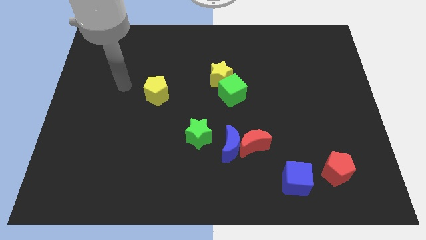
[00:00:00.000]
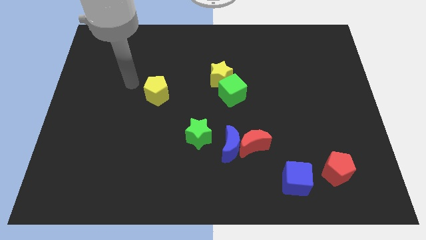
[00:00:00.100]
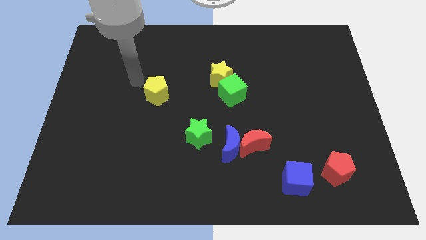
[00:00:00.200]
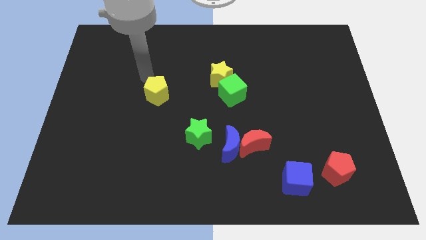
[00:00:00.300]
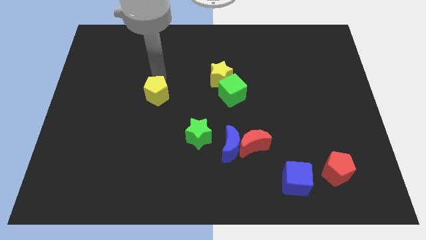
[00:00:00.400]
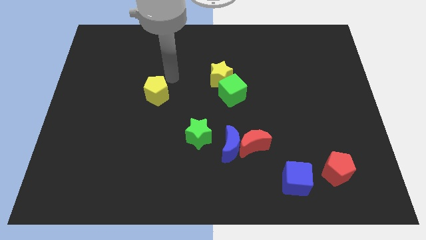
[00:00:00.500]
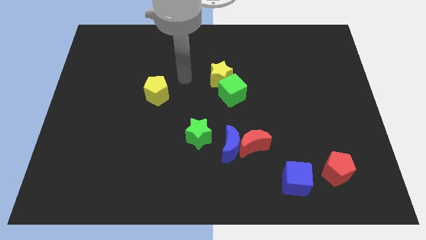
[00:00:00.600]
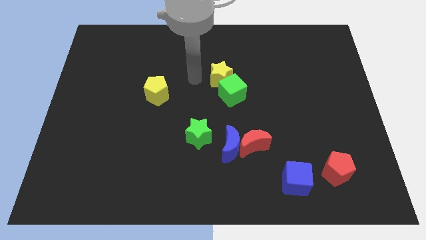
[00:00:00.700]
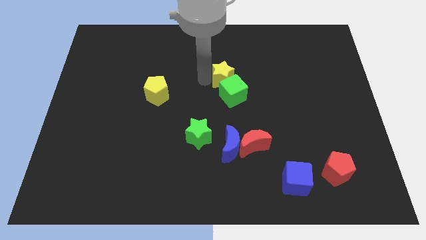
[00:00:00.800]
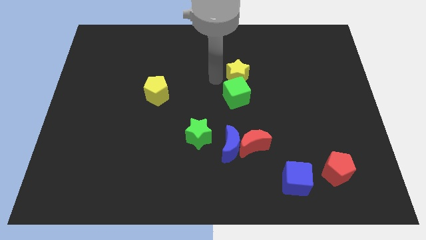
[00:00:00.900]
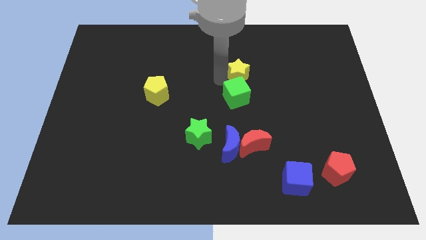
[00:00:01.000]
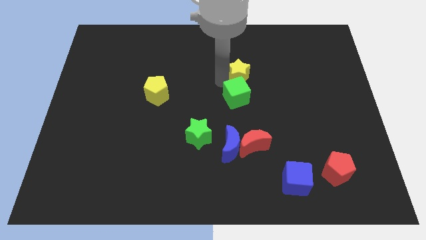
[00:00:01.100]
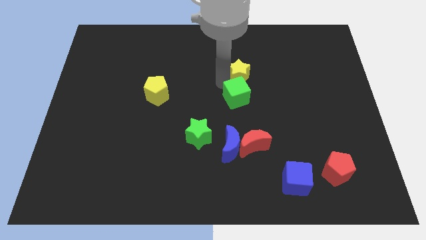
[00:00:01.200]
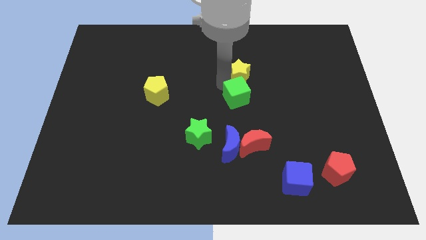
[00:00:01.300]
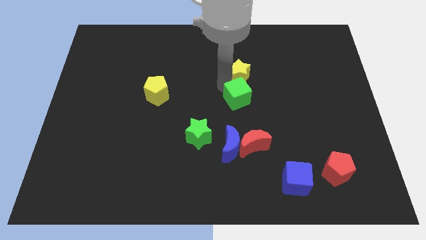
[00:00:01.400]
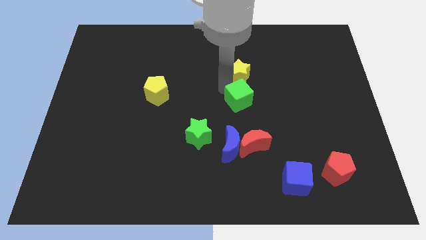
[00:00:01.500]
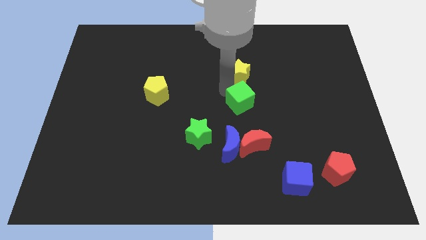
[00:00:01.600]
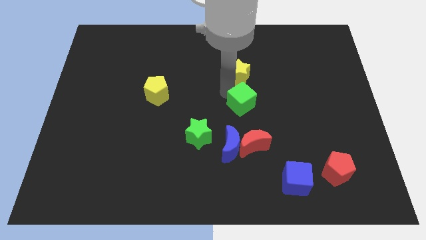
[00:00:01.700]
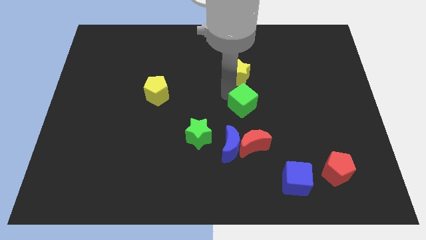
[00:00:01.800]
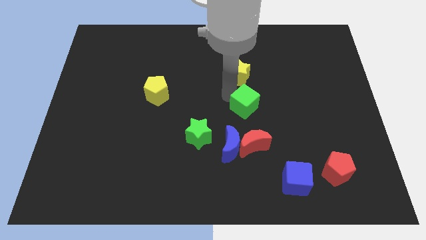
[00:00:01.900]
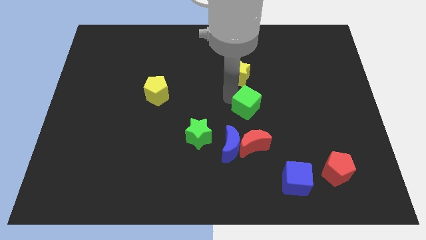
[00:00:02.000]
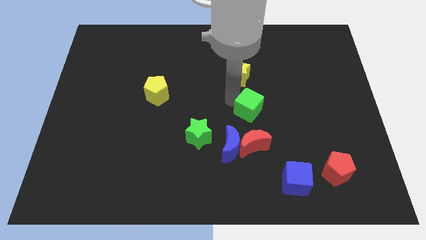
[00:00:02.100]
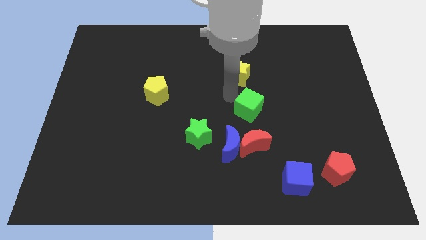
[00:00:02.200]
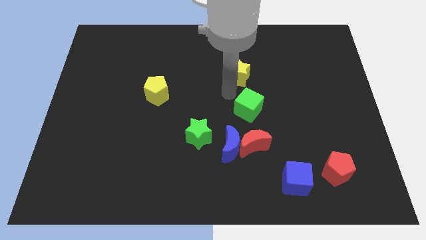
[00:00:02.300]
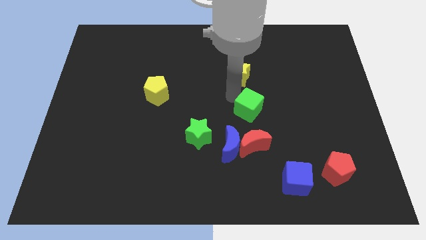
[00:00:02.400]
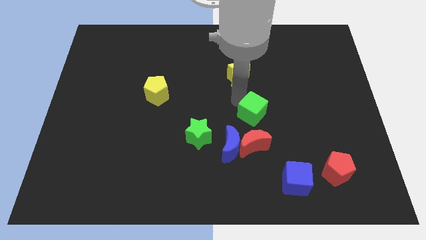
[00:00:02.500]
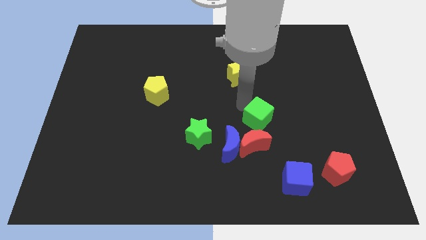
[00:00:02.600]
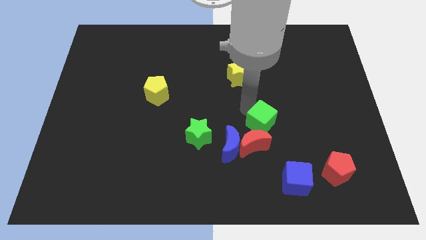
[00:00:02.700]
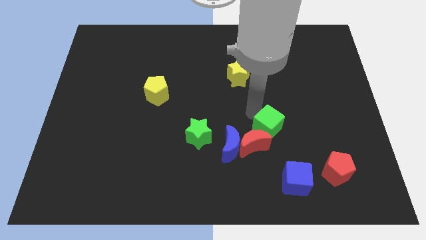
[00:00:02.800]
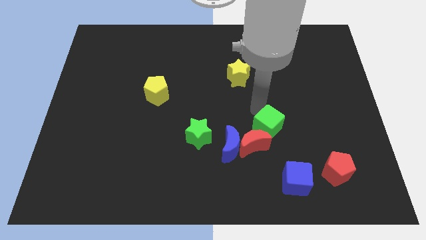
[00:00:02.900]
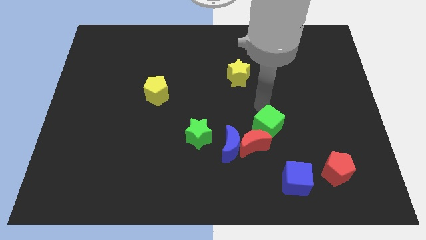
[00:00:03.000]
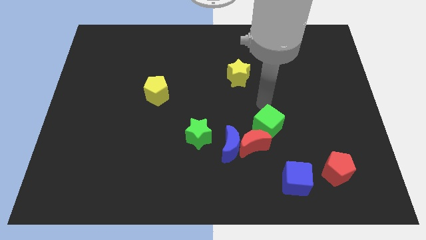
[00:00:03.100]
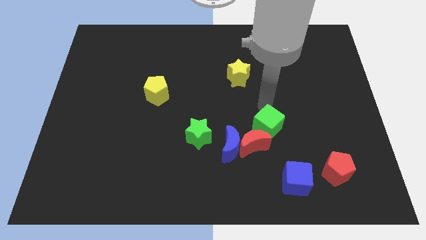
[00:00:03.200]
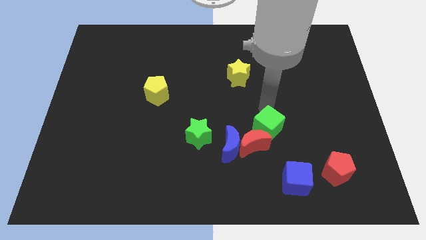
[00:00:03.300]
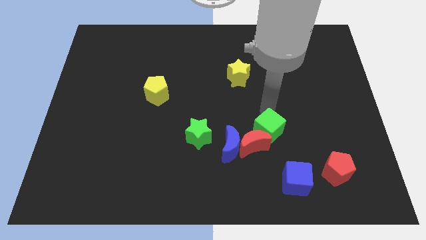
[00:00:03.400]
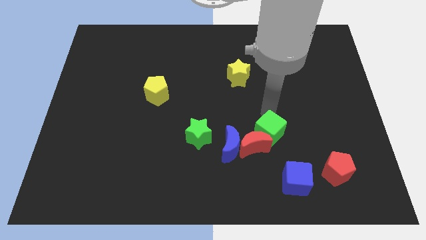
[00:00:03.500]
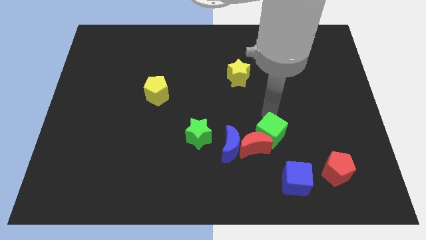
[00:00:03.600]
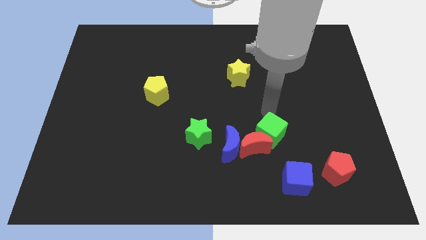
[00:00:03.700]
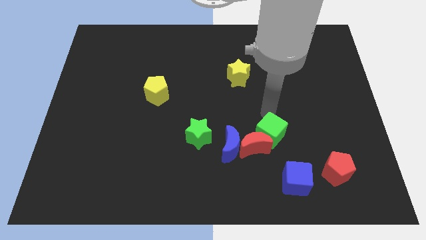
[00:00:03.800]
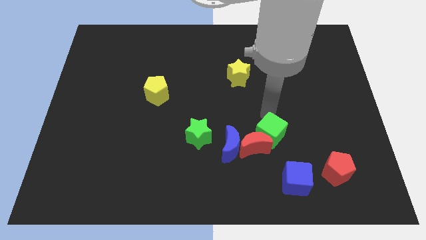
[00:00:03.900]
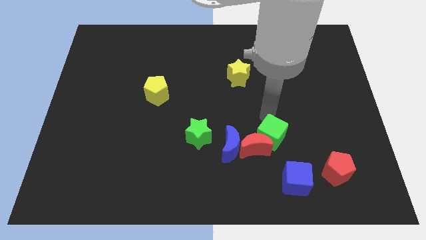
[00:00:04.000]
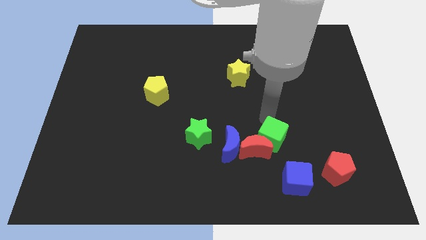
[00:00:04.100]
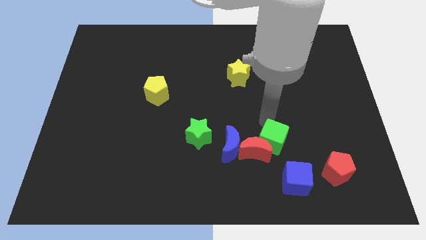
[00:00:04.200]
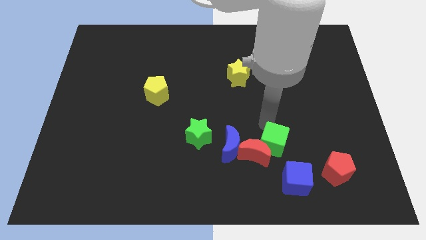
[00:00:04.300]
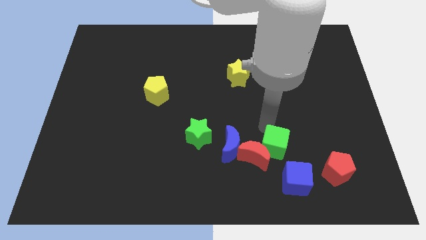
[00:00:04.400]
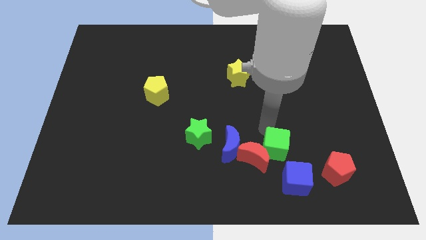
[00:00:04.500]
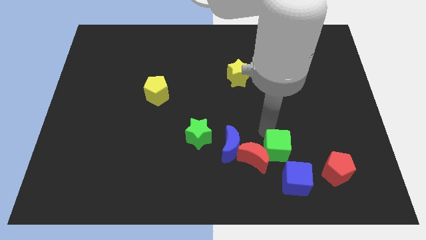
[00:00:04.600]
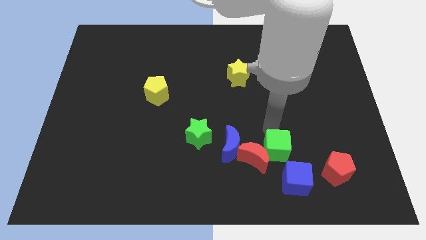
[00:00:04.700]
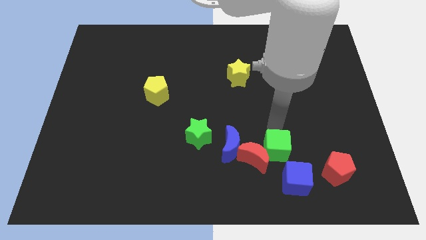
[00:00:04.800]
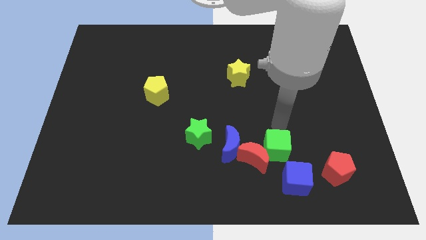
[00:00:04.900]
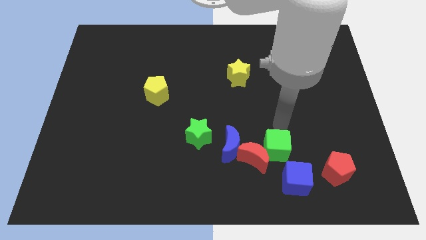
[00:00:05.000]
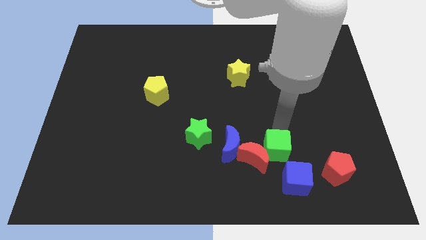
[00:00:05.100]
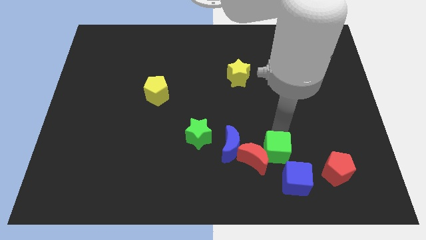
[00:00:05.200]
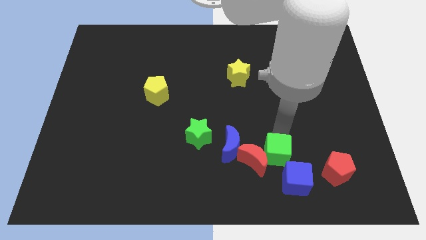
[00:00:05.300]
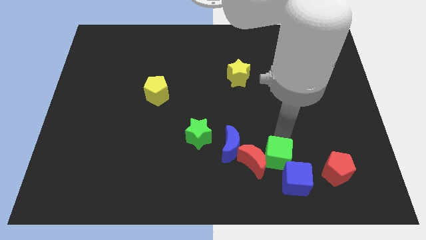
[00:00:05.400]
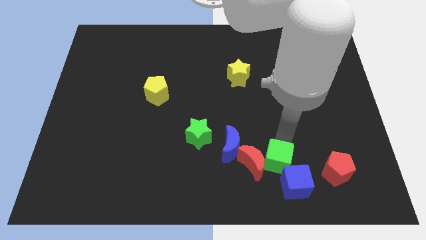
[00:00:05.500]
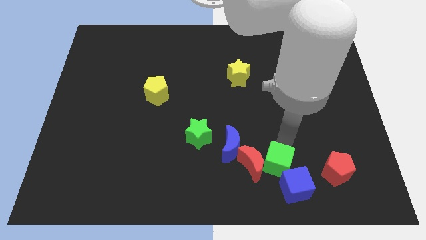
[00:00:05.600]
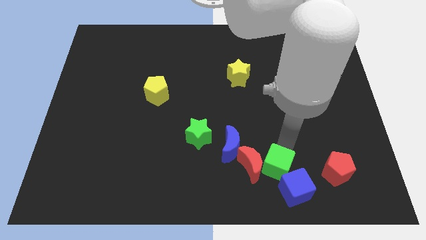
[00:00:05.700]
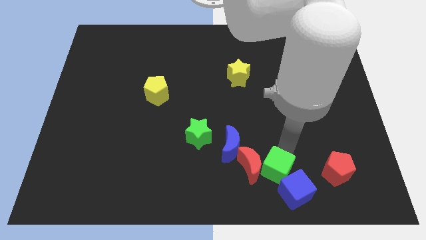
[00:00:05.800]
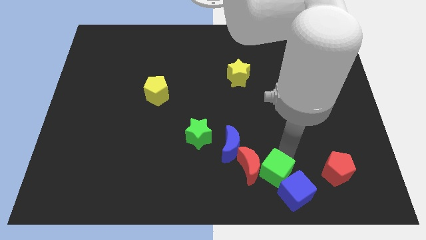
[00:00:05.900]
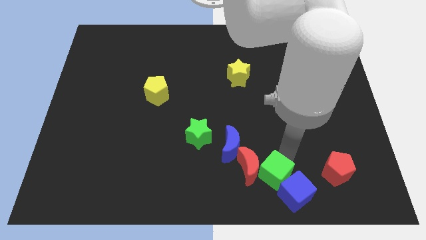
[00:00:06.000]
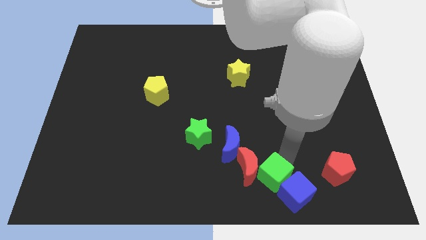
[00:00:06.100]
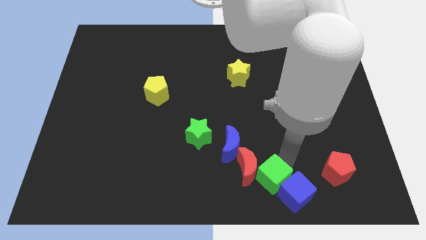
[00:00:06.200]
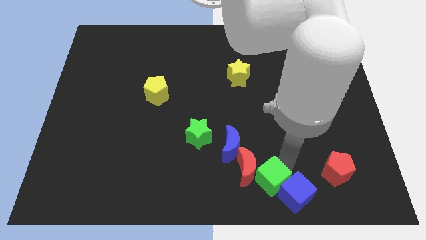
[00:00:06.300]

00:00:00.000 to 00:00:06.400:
slide the green cube to the bottom
